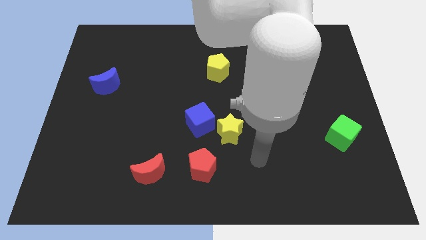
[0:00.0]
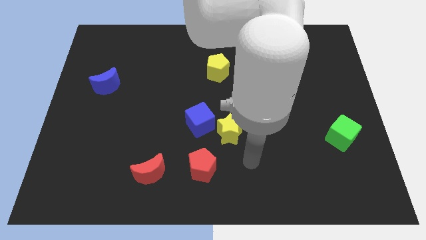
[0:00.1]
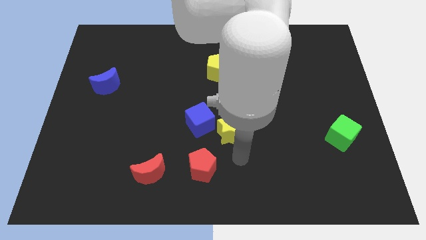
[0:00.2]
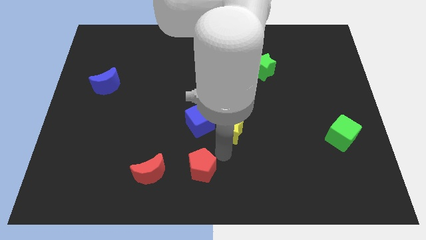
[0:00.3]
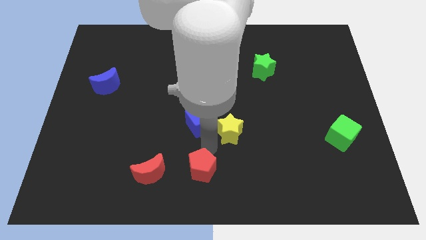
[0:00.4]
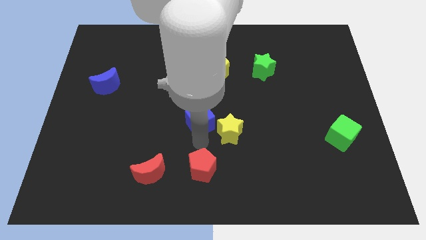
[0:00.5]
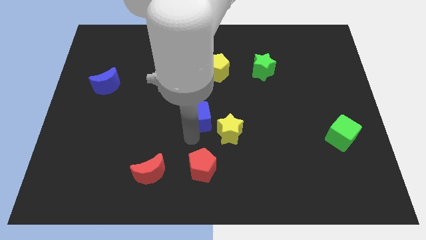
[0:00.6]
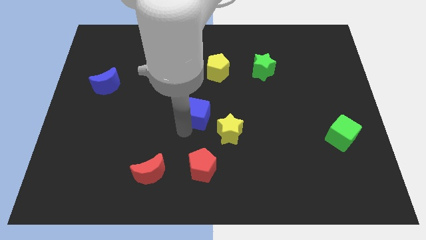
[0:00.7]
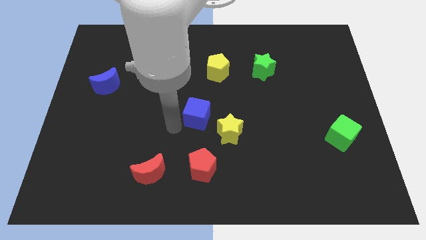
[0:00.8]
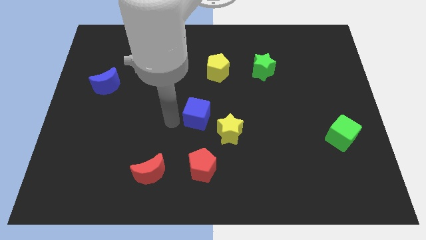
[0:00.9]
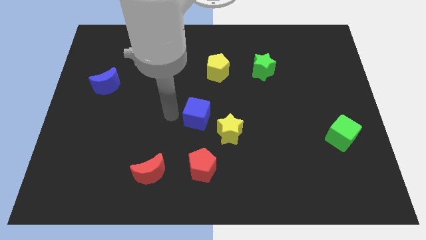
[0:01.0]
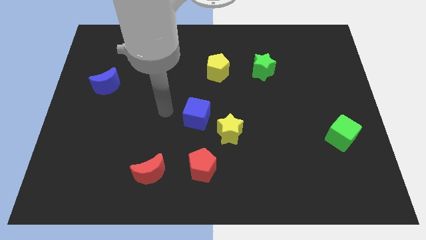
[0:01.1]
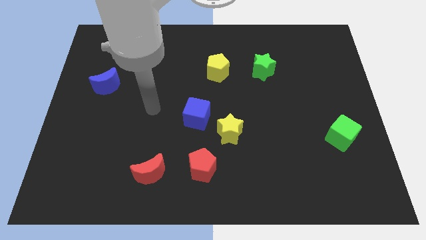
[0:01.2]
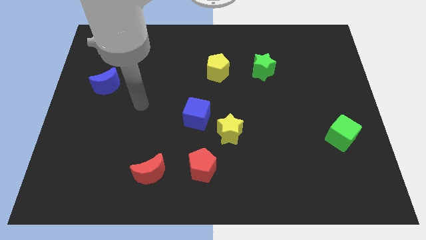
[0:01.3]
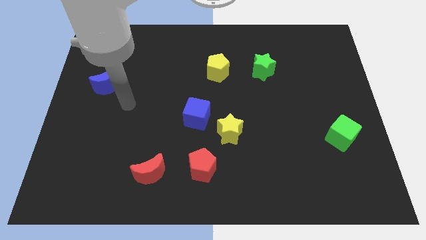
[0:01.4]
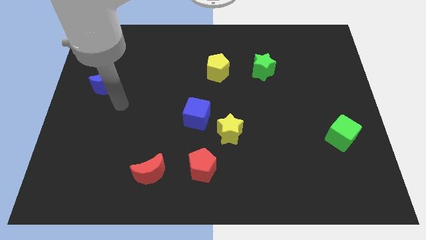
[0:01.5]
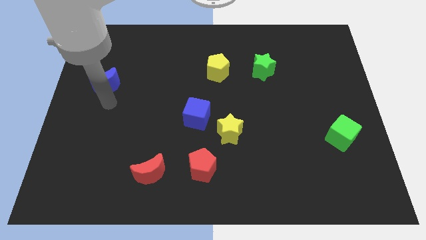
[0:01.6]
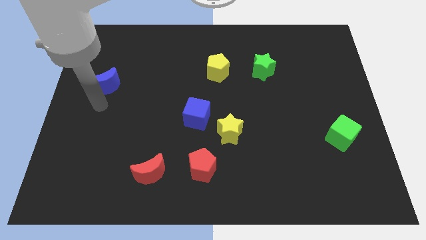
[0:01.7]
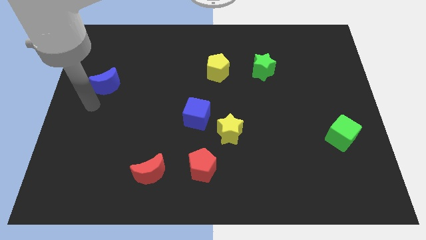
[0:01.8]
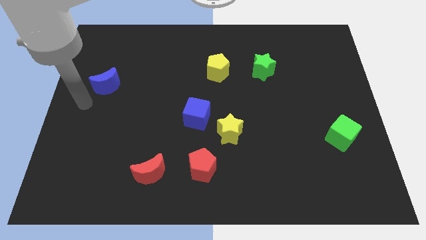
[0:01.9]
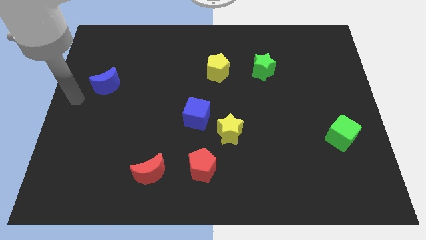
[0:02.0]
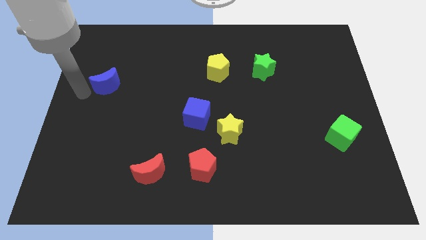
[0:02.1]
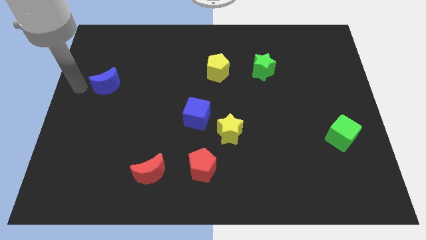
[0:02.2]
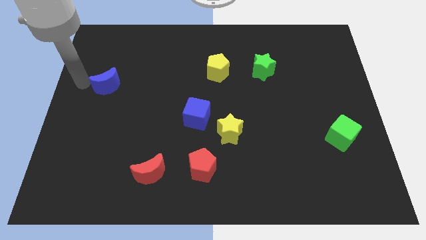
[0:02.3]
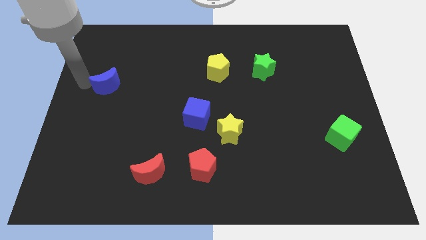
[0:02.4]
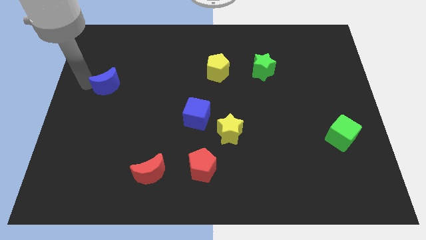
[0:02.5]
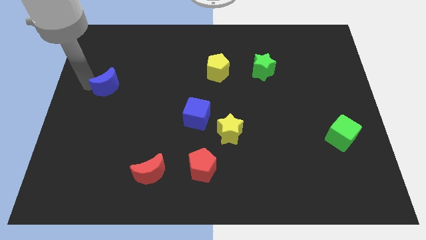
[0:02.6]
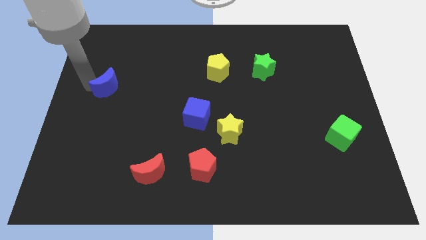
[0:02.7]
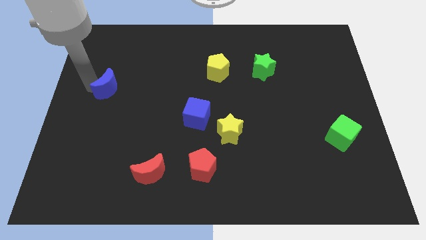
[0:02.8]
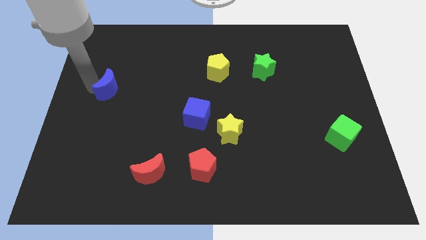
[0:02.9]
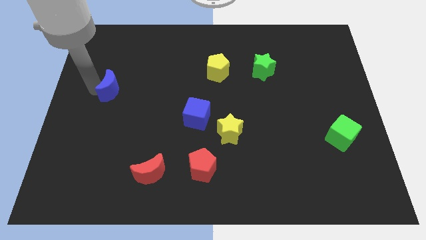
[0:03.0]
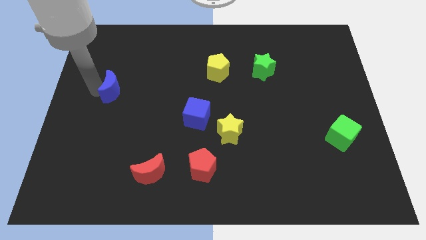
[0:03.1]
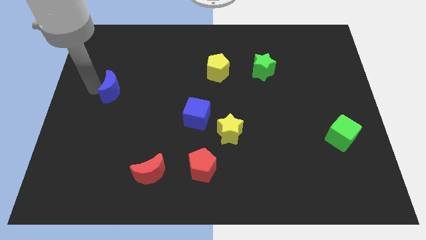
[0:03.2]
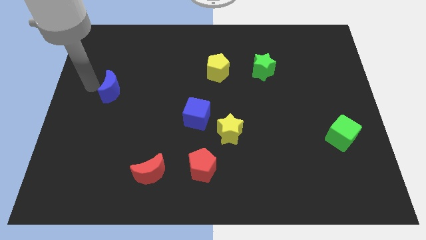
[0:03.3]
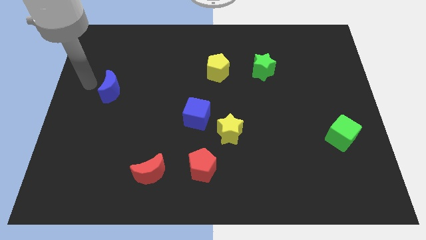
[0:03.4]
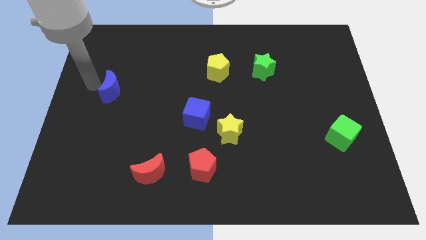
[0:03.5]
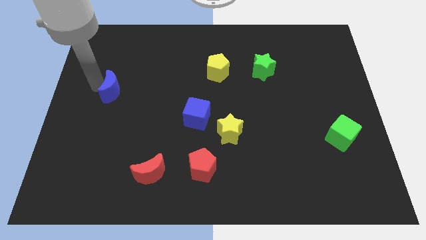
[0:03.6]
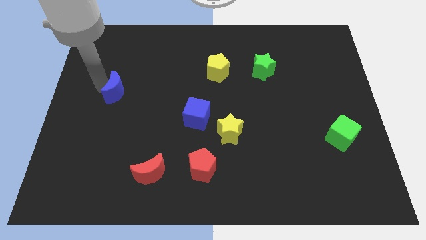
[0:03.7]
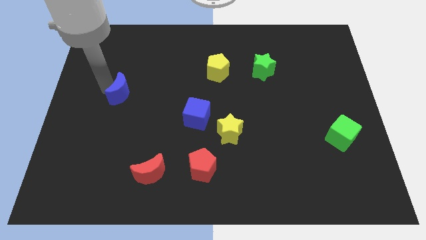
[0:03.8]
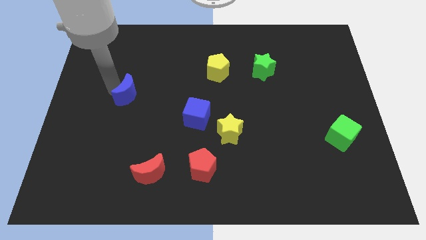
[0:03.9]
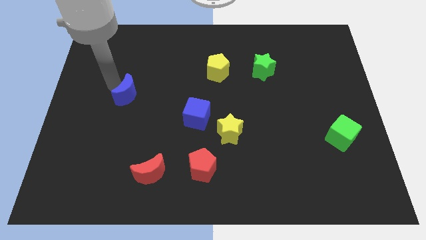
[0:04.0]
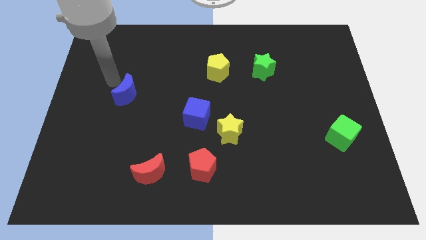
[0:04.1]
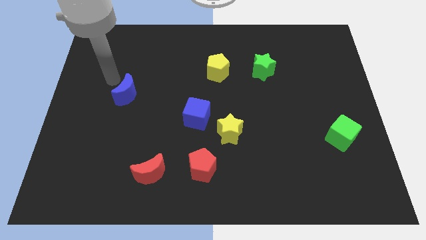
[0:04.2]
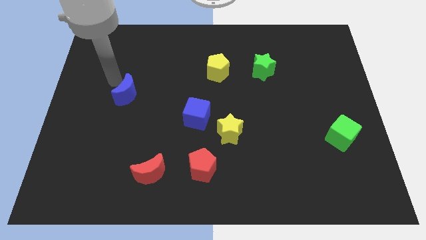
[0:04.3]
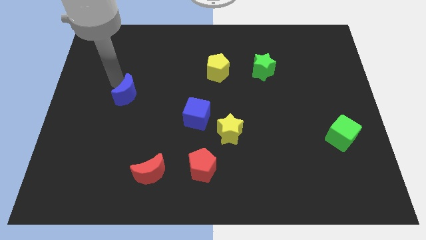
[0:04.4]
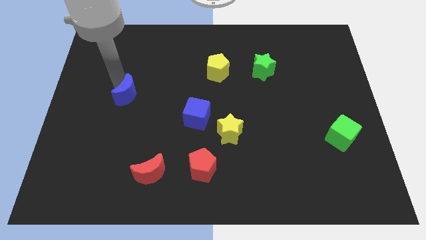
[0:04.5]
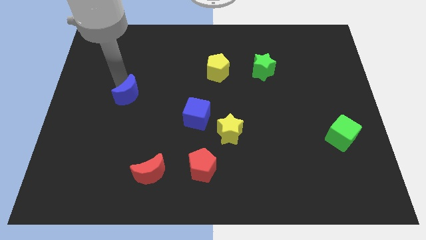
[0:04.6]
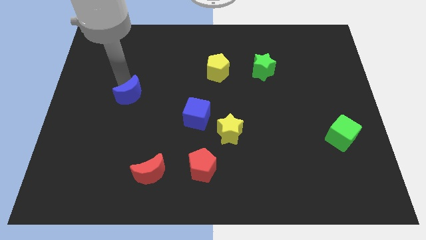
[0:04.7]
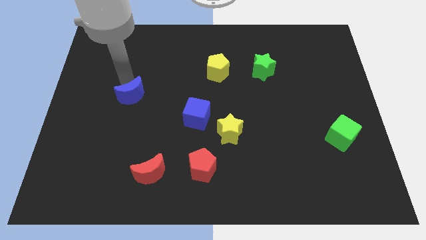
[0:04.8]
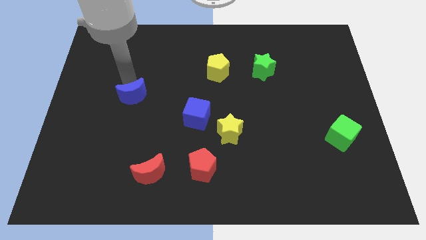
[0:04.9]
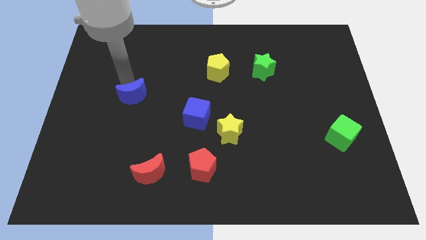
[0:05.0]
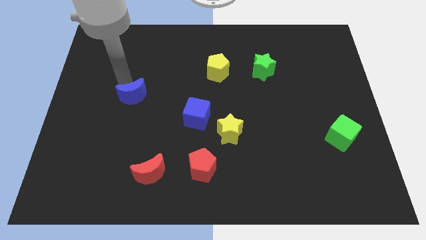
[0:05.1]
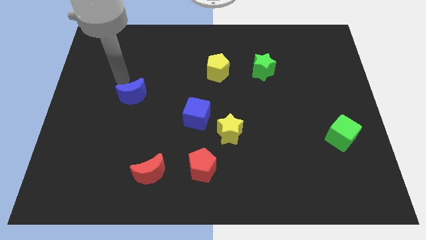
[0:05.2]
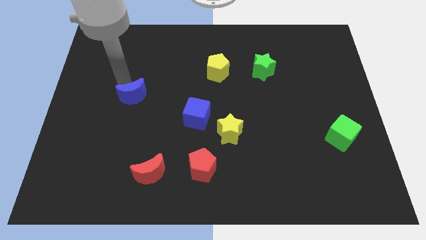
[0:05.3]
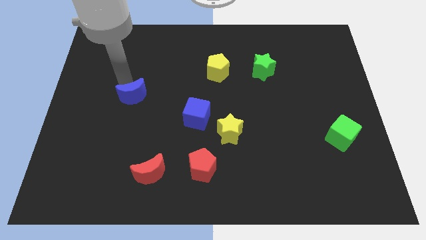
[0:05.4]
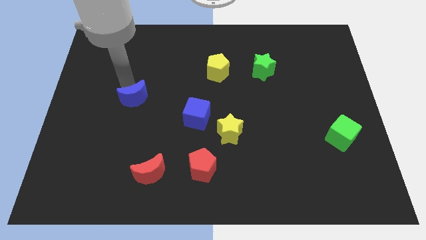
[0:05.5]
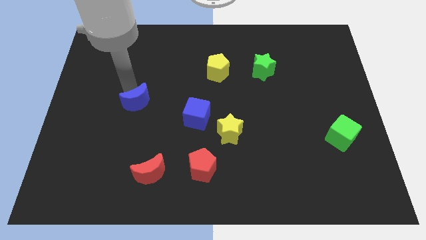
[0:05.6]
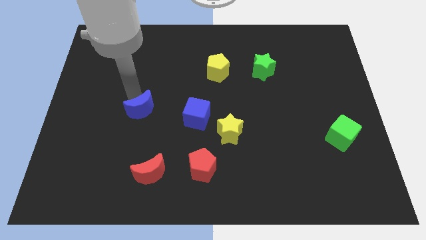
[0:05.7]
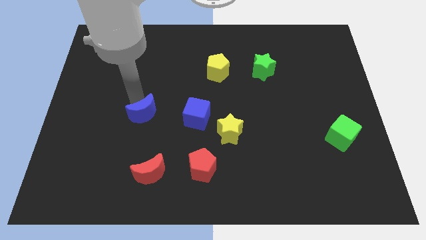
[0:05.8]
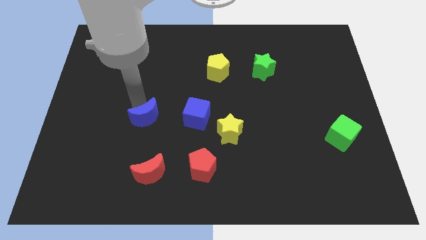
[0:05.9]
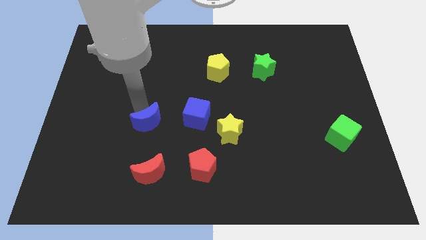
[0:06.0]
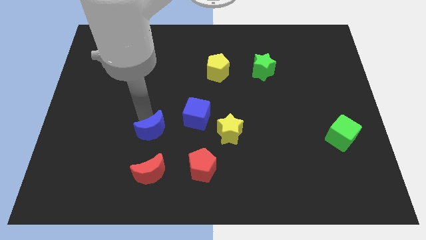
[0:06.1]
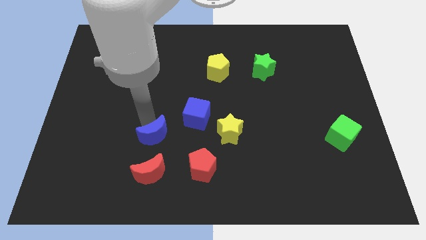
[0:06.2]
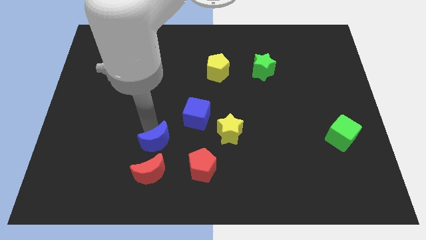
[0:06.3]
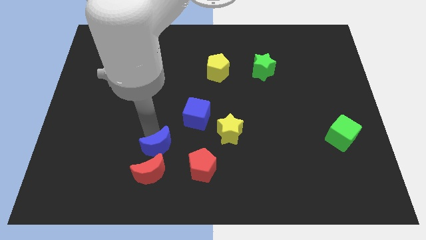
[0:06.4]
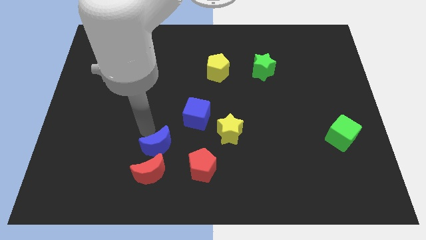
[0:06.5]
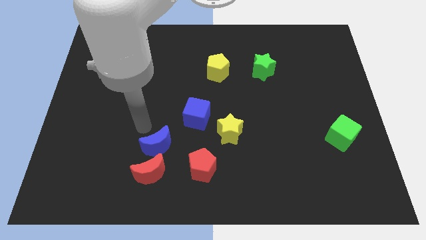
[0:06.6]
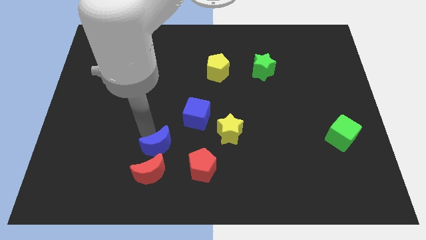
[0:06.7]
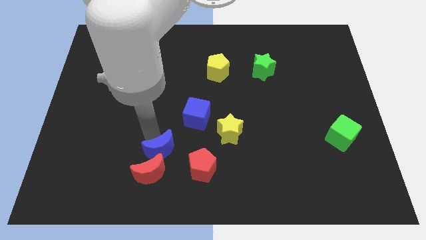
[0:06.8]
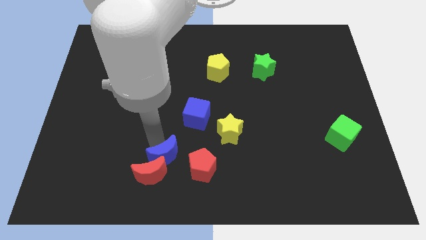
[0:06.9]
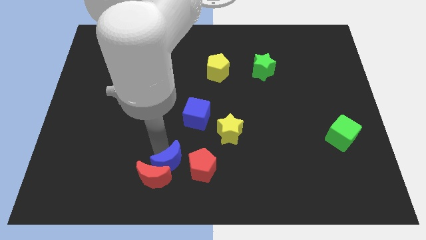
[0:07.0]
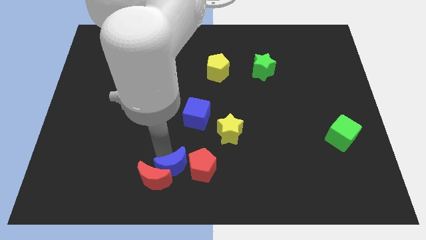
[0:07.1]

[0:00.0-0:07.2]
move the blue moon to the bottom
